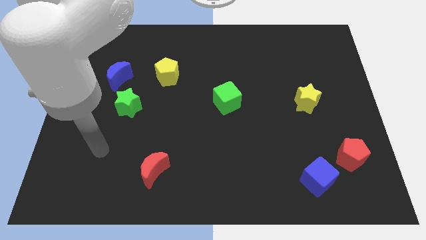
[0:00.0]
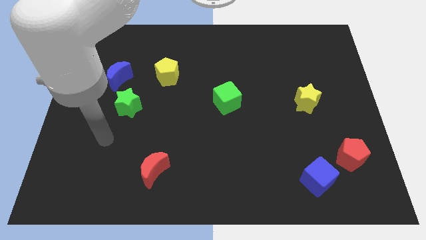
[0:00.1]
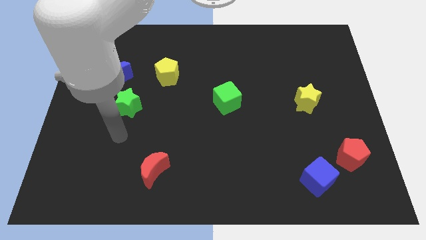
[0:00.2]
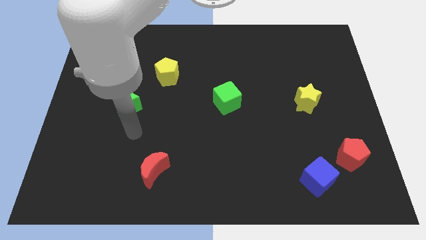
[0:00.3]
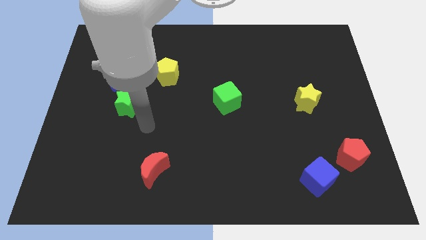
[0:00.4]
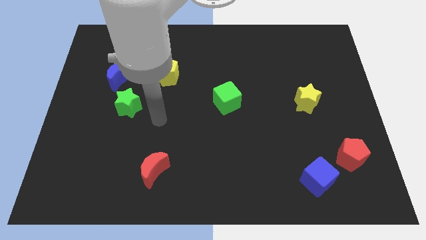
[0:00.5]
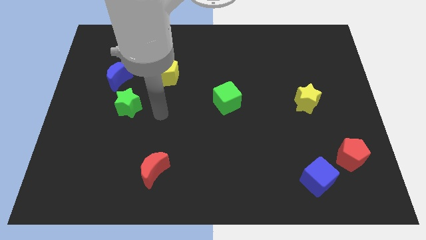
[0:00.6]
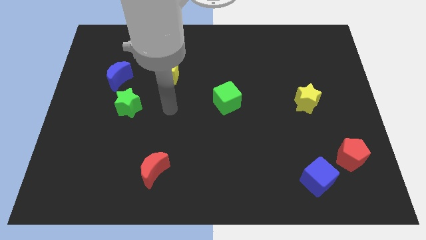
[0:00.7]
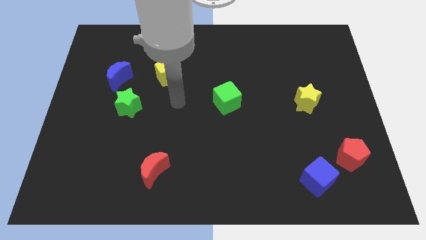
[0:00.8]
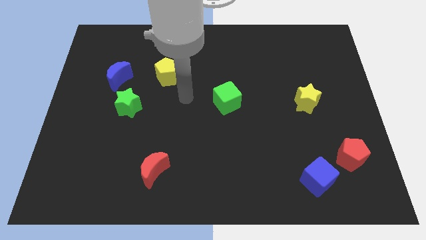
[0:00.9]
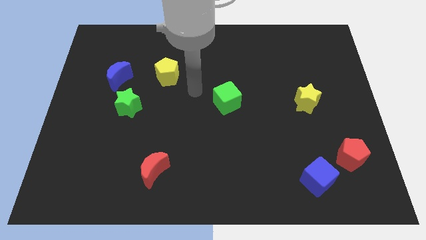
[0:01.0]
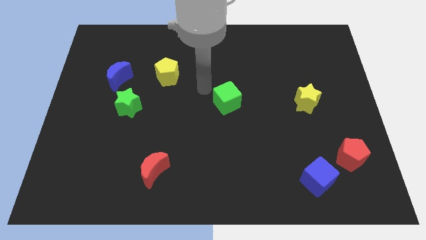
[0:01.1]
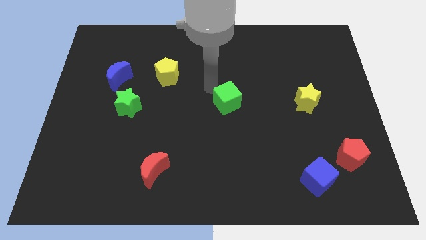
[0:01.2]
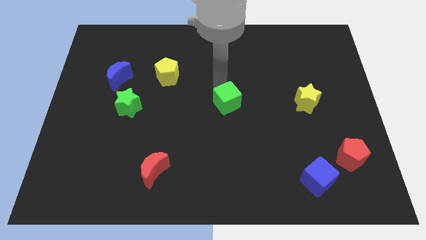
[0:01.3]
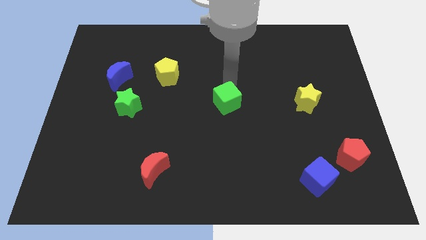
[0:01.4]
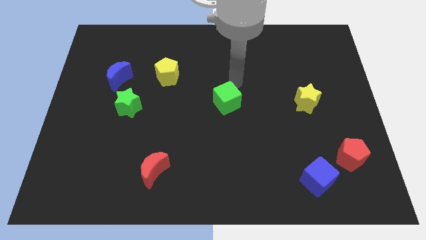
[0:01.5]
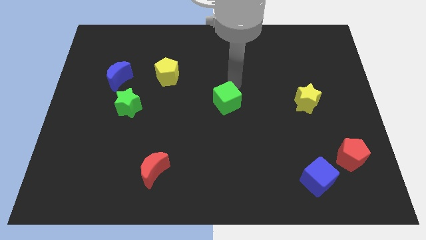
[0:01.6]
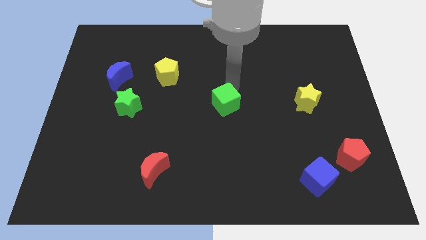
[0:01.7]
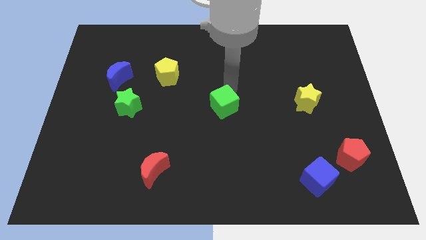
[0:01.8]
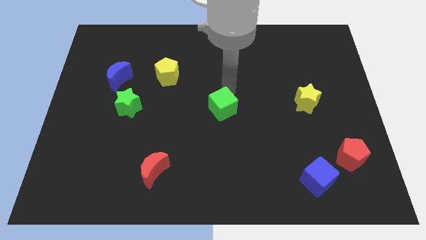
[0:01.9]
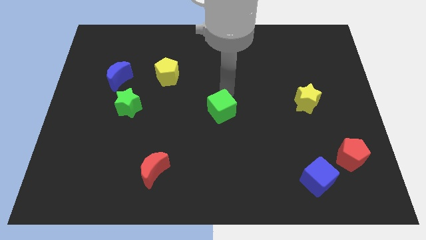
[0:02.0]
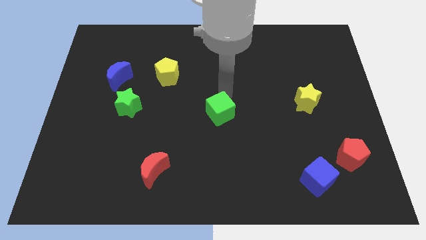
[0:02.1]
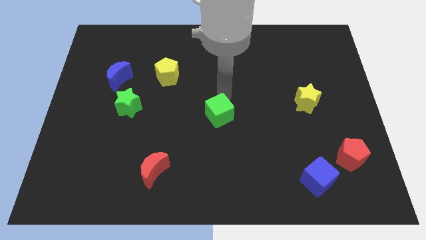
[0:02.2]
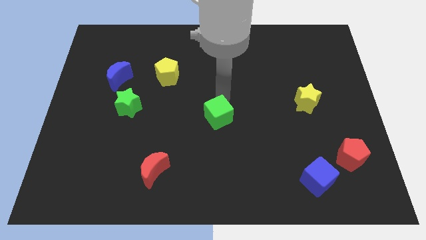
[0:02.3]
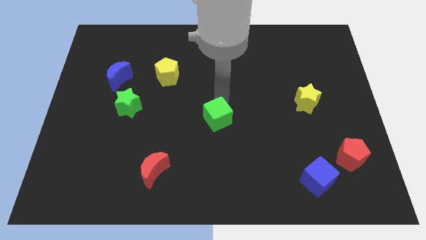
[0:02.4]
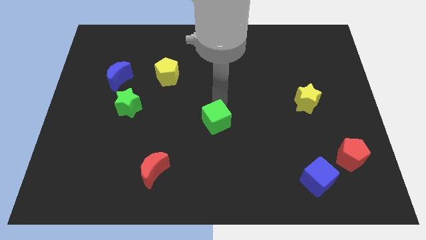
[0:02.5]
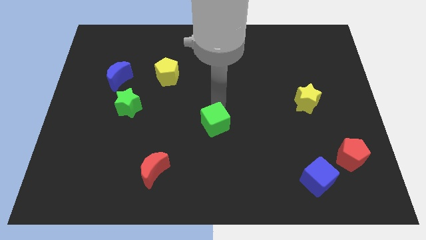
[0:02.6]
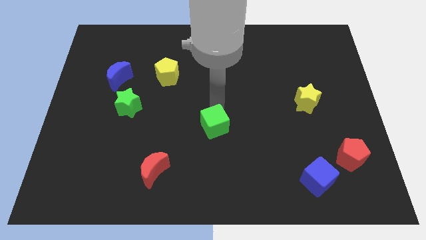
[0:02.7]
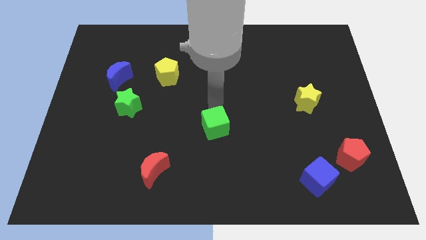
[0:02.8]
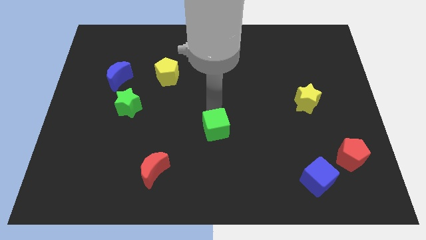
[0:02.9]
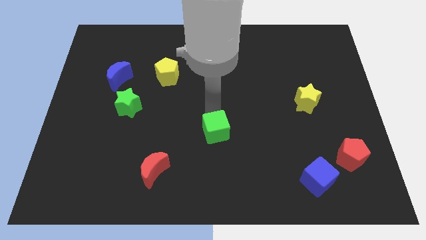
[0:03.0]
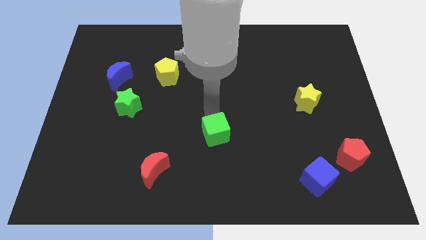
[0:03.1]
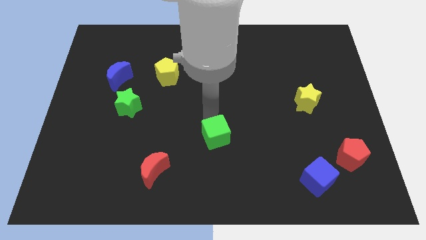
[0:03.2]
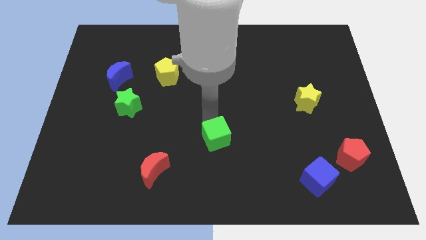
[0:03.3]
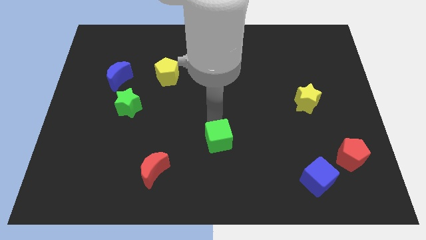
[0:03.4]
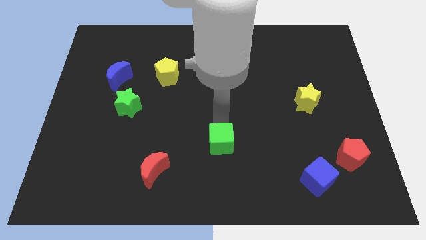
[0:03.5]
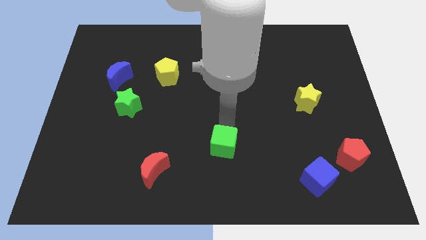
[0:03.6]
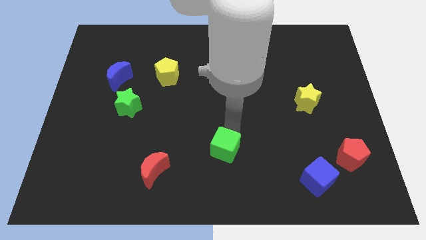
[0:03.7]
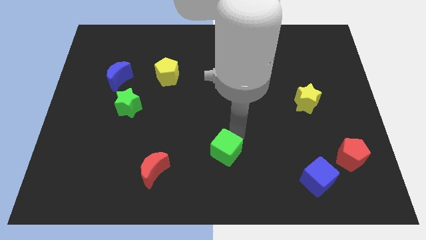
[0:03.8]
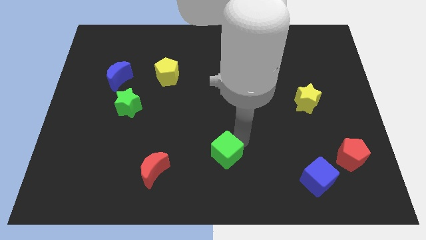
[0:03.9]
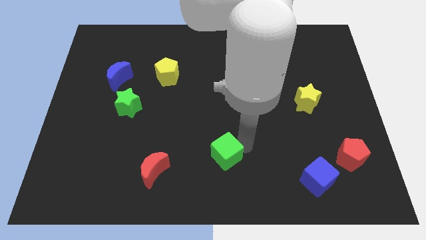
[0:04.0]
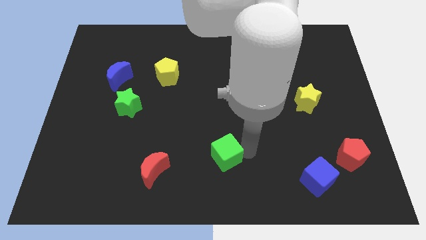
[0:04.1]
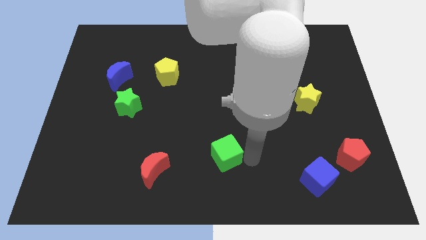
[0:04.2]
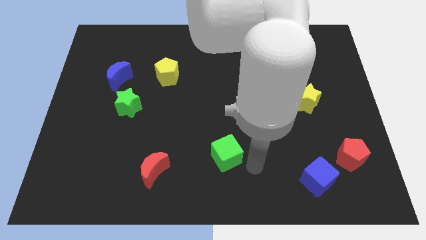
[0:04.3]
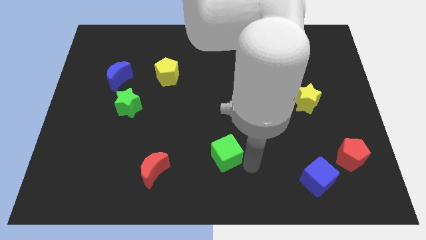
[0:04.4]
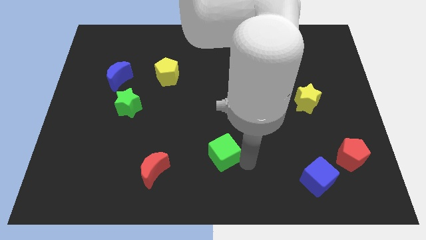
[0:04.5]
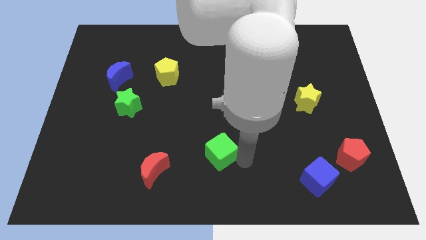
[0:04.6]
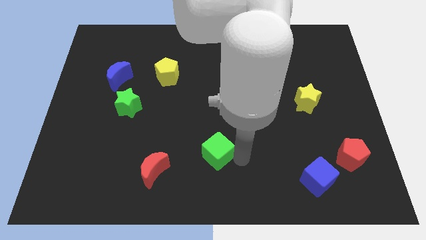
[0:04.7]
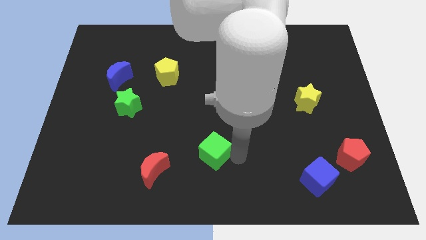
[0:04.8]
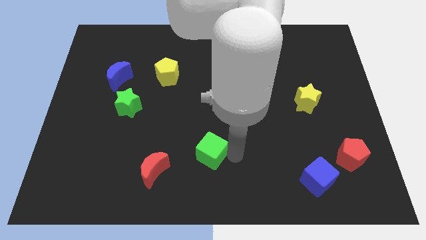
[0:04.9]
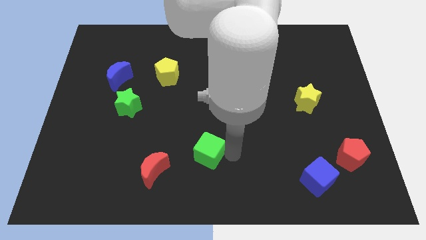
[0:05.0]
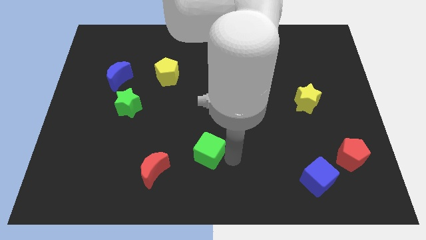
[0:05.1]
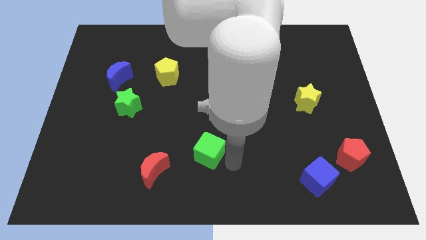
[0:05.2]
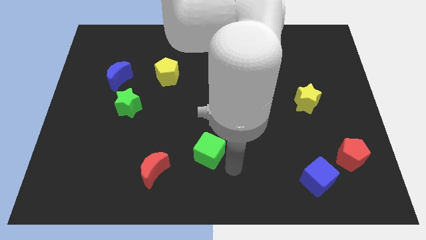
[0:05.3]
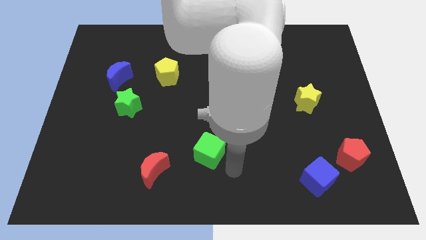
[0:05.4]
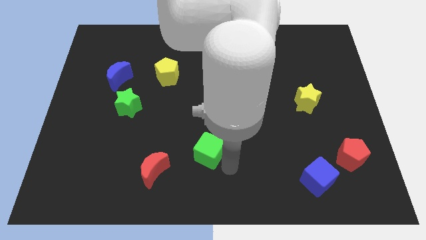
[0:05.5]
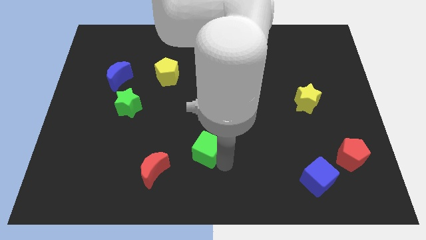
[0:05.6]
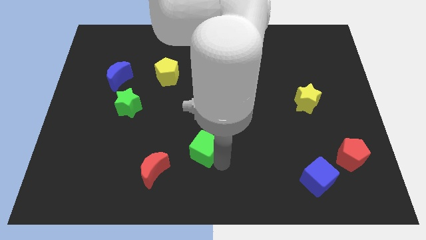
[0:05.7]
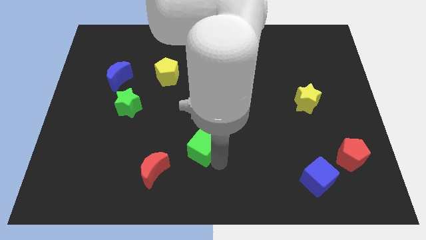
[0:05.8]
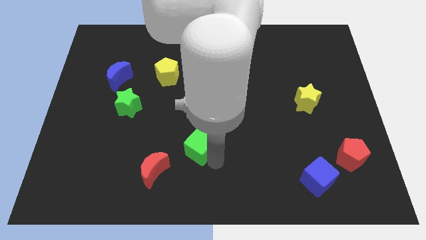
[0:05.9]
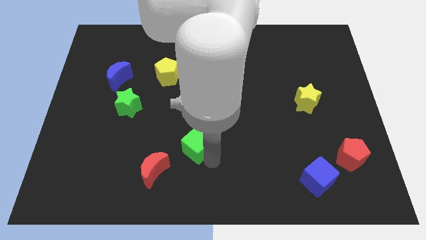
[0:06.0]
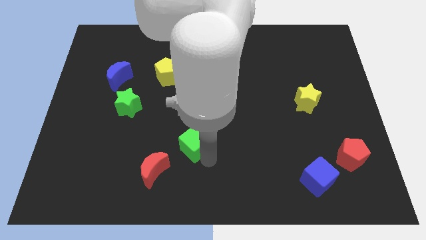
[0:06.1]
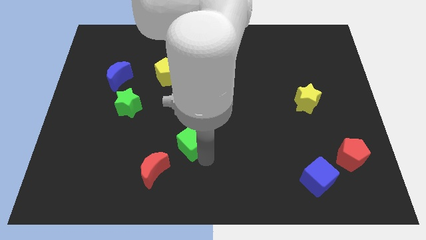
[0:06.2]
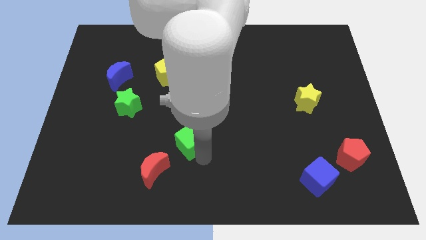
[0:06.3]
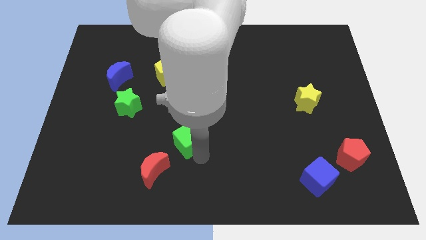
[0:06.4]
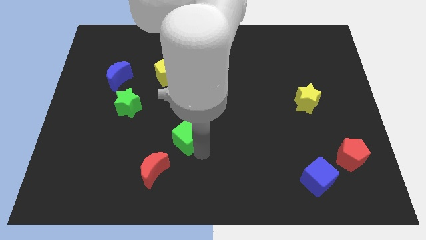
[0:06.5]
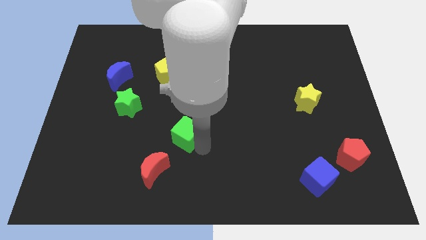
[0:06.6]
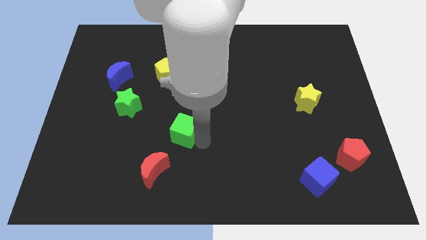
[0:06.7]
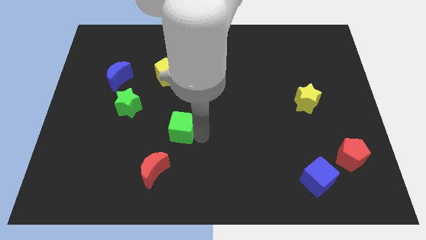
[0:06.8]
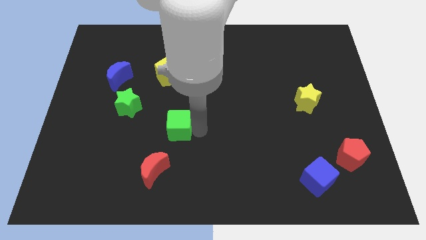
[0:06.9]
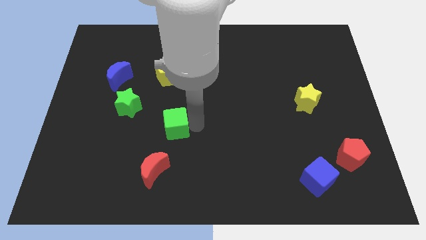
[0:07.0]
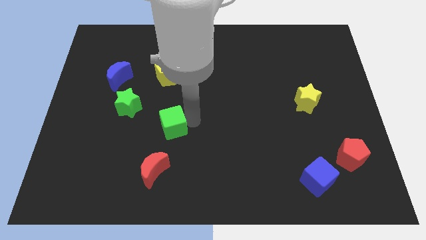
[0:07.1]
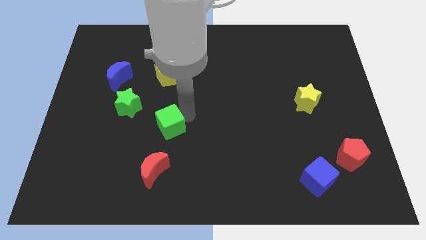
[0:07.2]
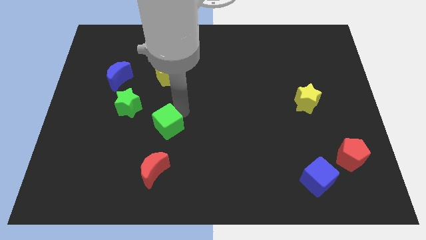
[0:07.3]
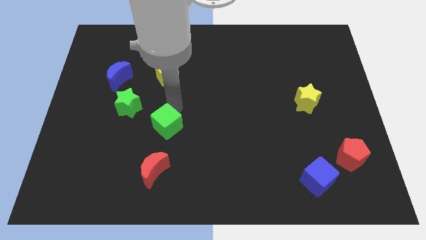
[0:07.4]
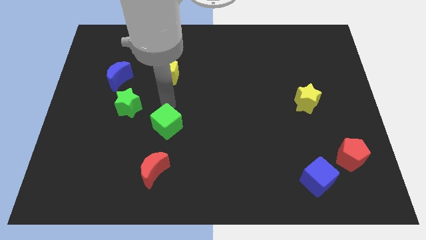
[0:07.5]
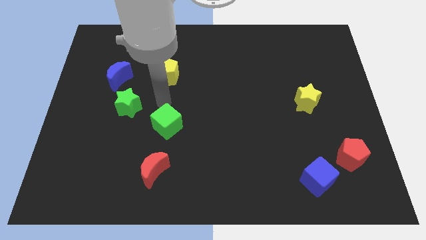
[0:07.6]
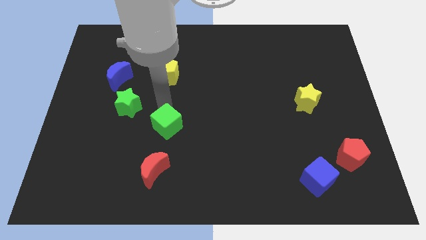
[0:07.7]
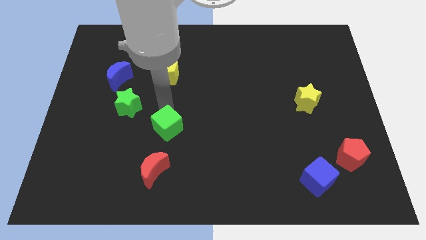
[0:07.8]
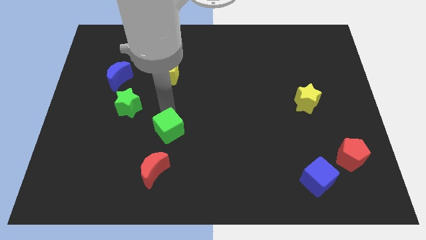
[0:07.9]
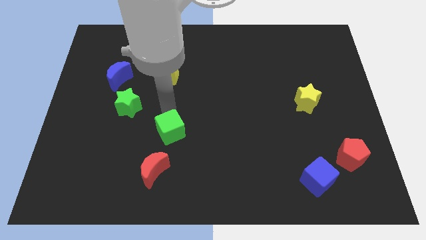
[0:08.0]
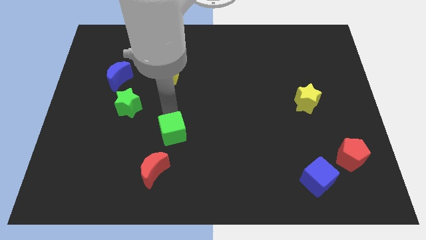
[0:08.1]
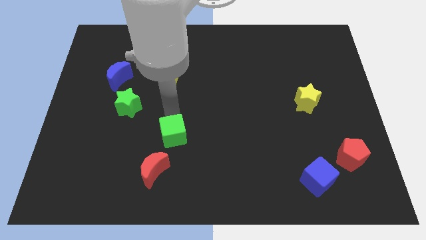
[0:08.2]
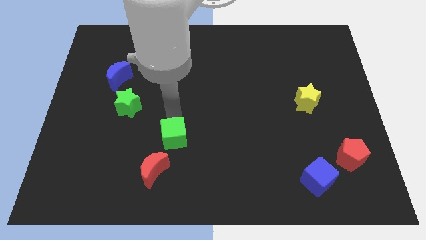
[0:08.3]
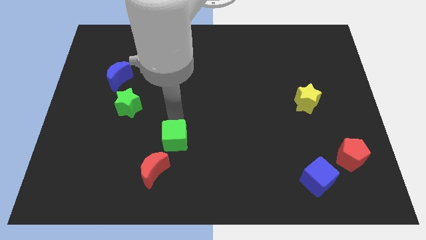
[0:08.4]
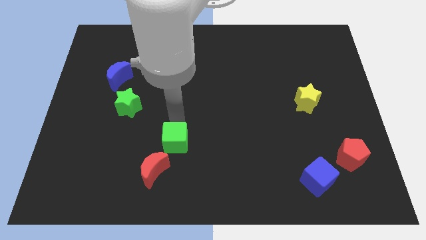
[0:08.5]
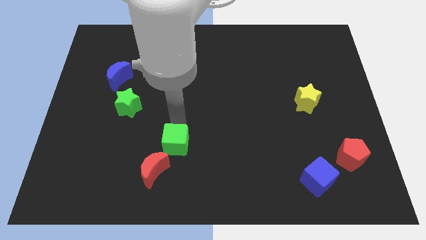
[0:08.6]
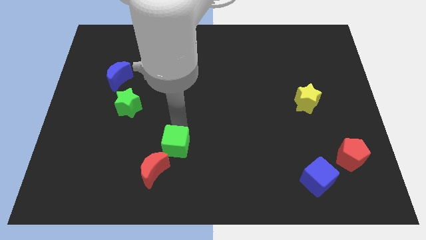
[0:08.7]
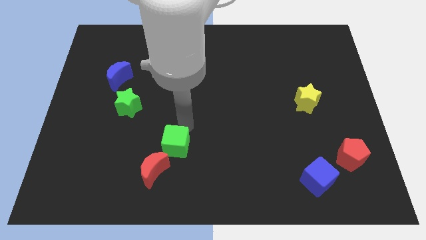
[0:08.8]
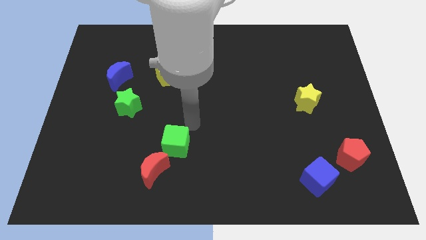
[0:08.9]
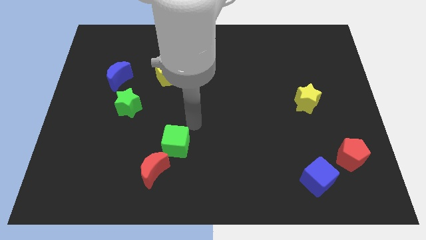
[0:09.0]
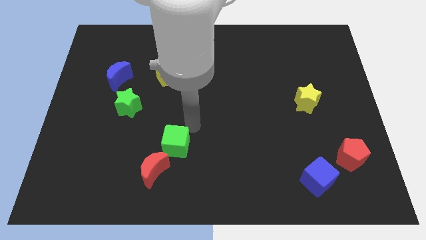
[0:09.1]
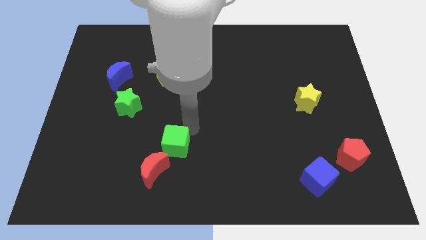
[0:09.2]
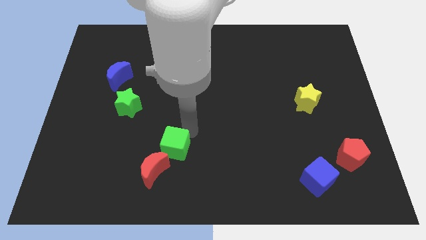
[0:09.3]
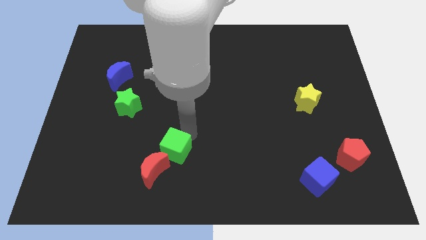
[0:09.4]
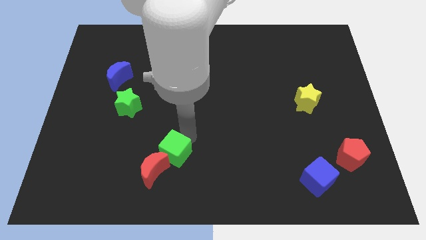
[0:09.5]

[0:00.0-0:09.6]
push the green cube to the red moon
